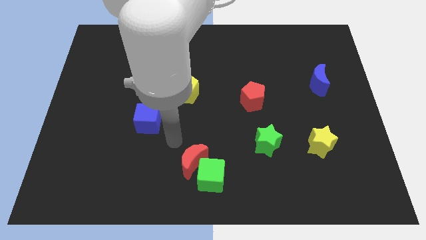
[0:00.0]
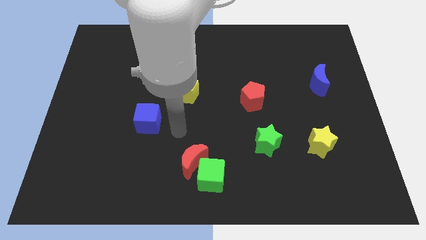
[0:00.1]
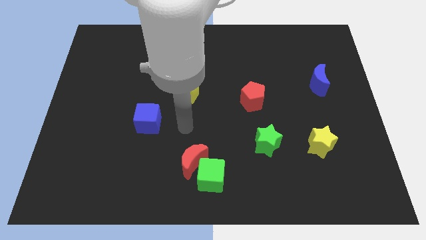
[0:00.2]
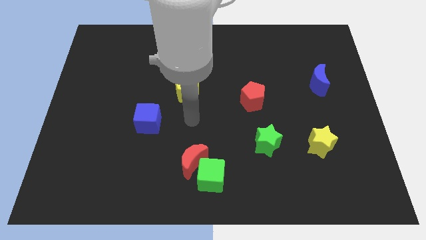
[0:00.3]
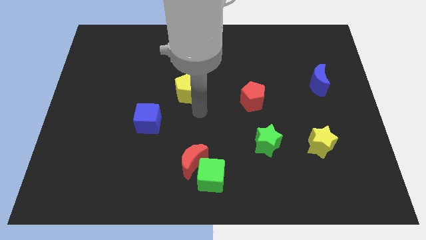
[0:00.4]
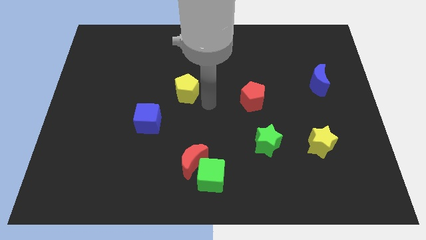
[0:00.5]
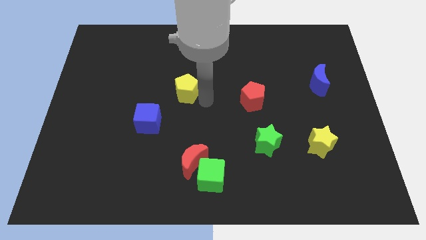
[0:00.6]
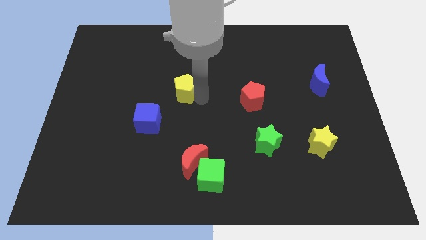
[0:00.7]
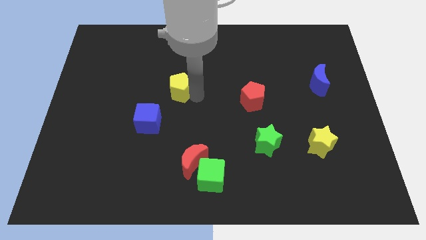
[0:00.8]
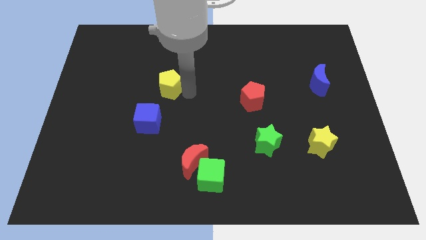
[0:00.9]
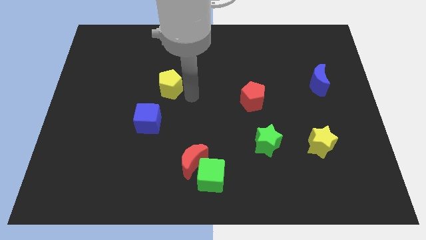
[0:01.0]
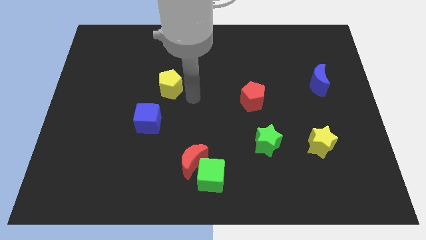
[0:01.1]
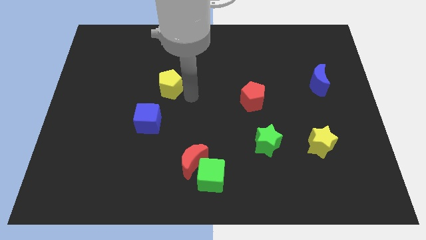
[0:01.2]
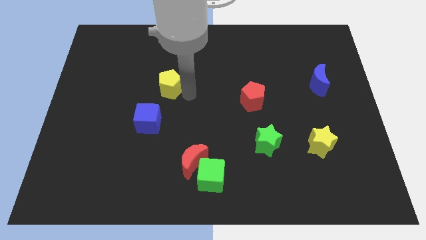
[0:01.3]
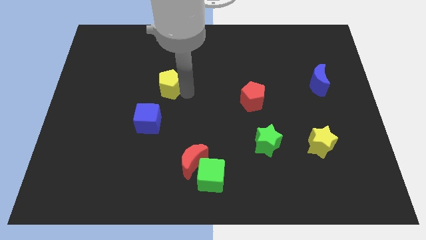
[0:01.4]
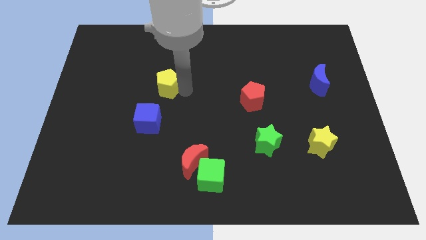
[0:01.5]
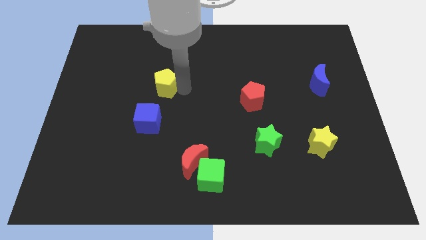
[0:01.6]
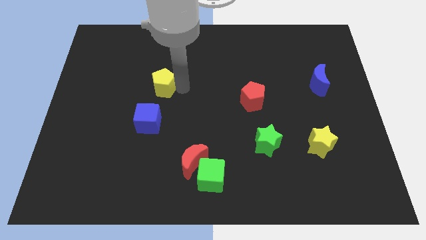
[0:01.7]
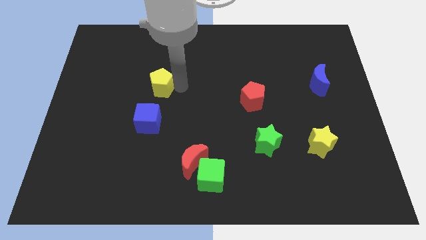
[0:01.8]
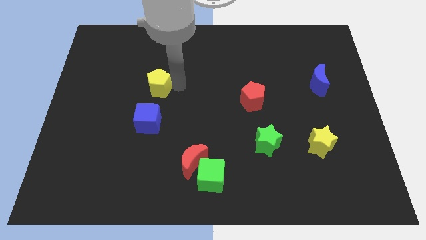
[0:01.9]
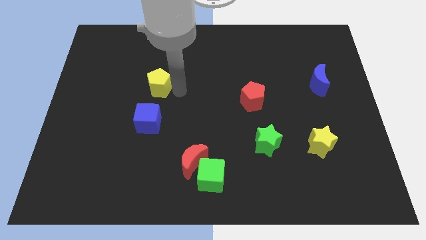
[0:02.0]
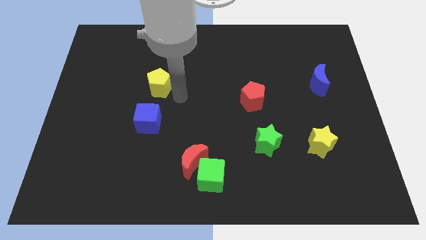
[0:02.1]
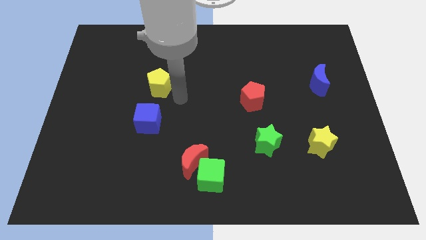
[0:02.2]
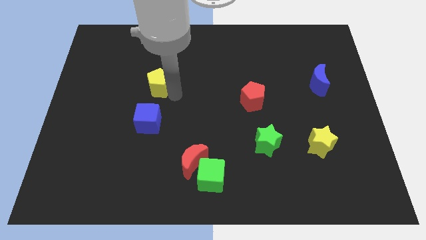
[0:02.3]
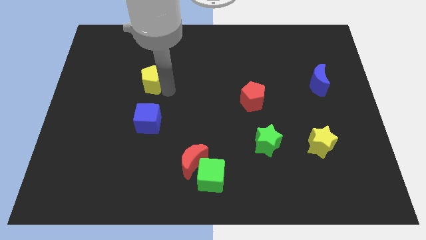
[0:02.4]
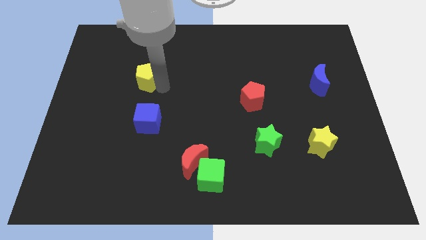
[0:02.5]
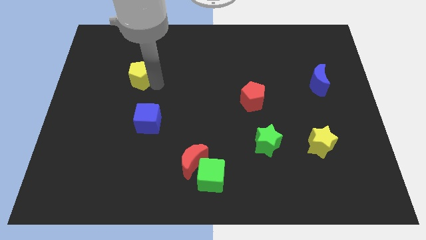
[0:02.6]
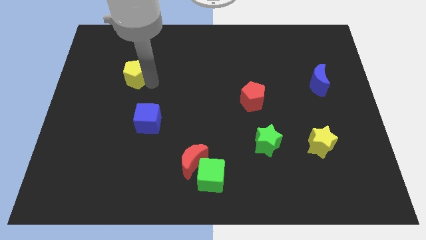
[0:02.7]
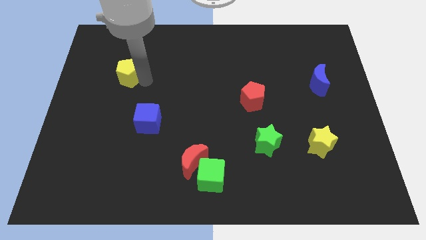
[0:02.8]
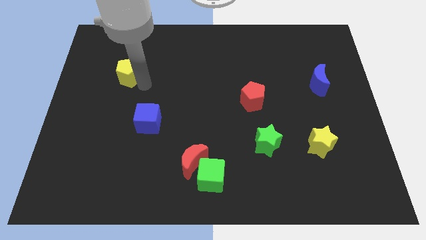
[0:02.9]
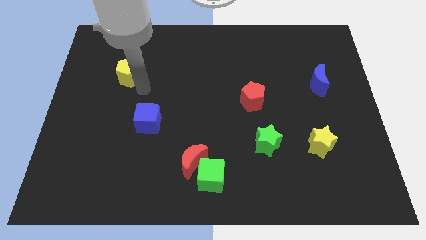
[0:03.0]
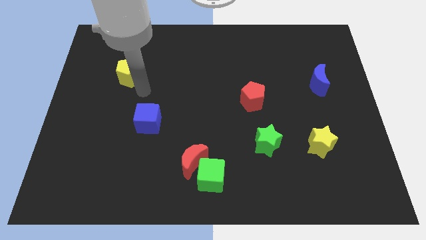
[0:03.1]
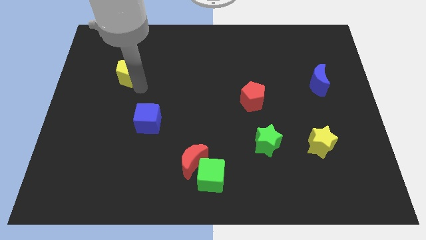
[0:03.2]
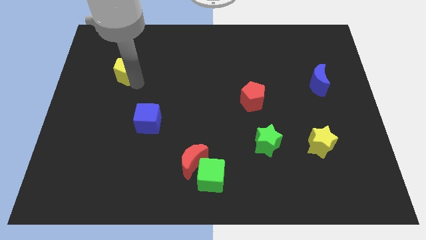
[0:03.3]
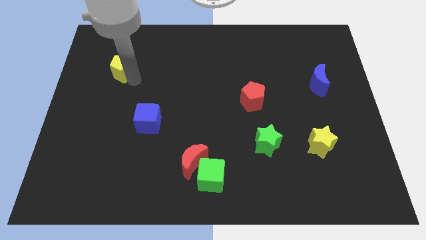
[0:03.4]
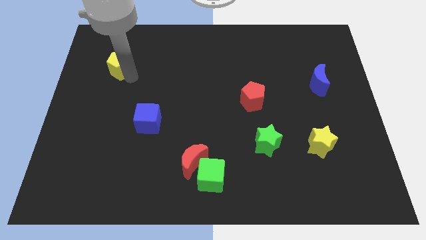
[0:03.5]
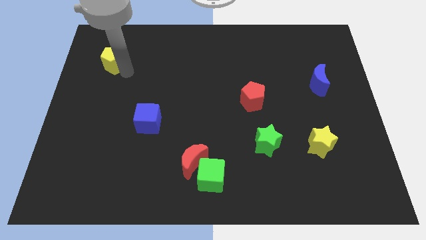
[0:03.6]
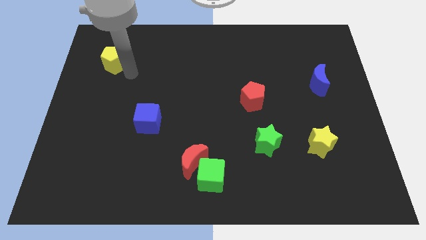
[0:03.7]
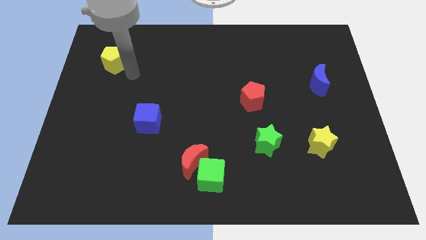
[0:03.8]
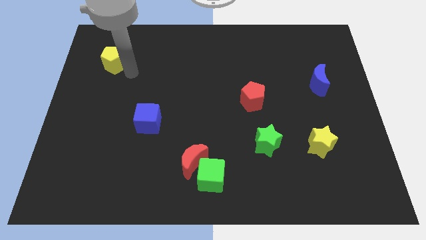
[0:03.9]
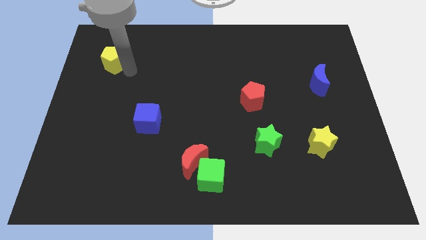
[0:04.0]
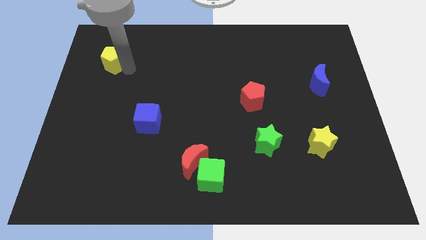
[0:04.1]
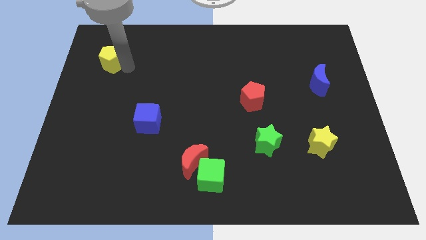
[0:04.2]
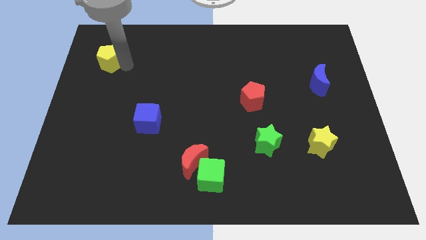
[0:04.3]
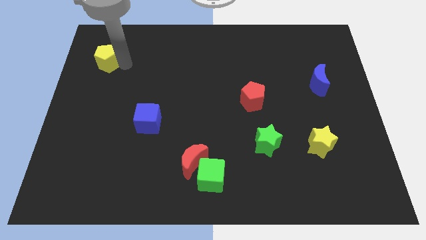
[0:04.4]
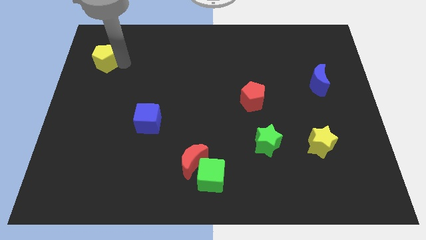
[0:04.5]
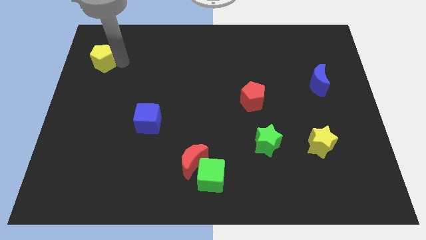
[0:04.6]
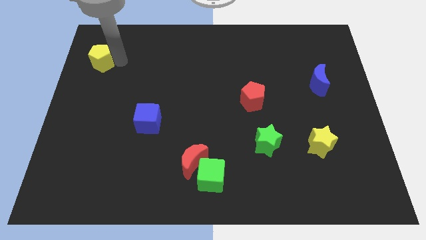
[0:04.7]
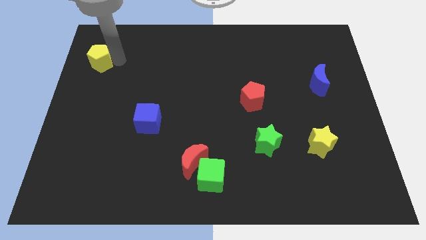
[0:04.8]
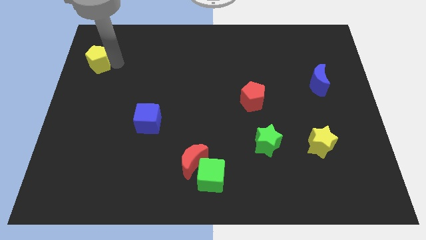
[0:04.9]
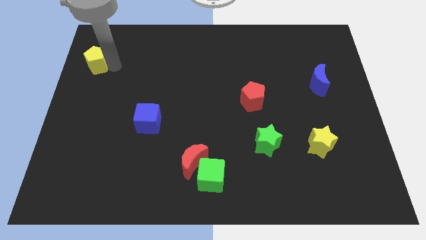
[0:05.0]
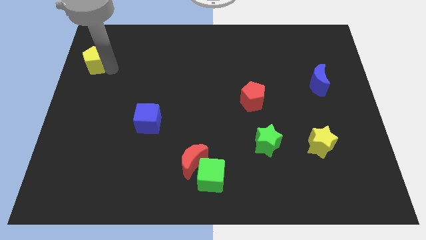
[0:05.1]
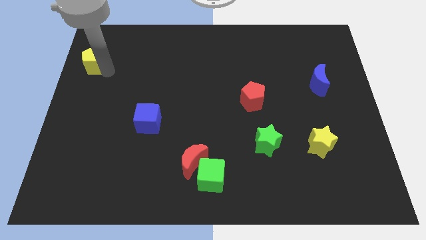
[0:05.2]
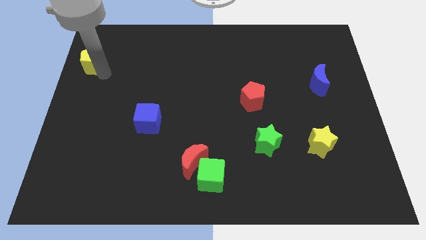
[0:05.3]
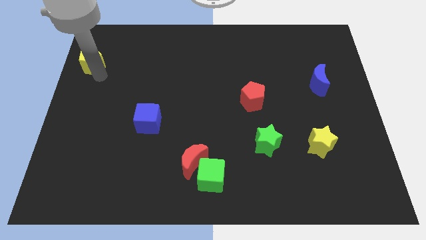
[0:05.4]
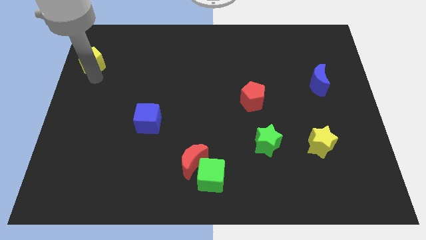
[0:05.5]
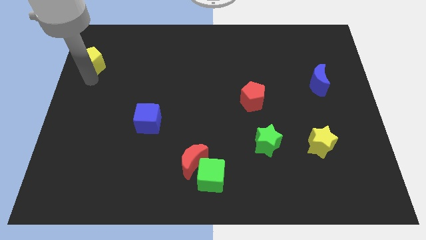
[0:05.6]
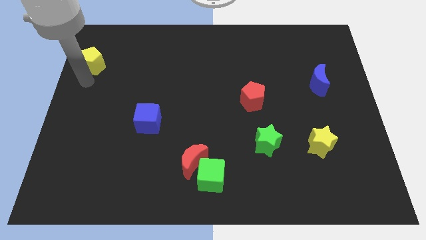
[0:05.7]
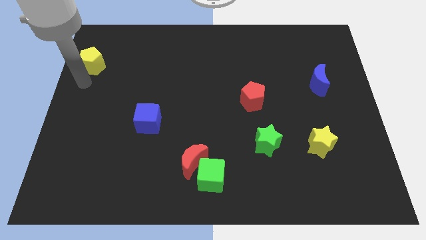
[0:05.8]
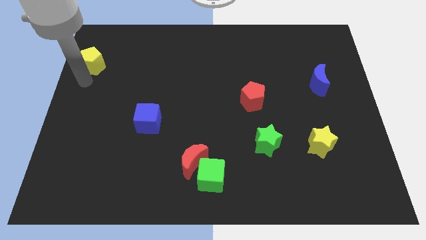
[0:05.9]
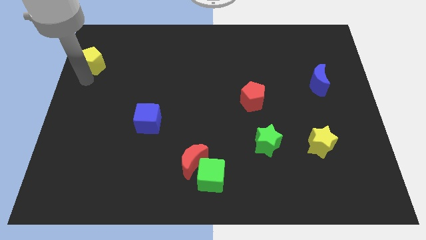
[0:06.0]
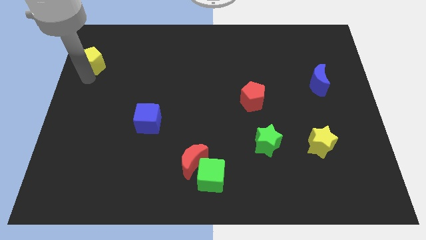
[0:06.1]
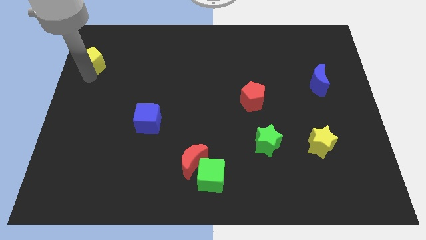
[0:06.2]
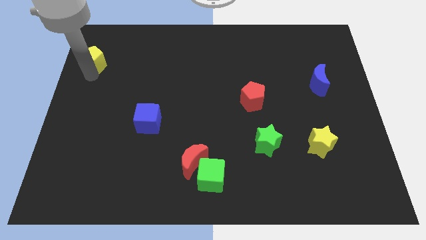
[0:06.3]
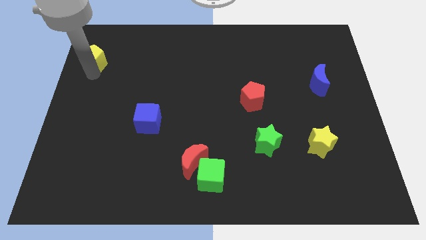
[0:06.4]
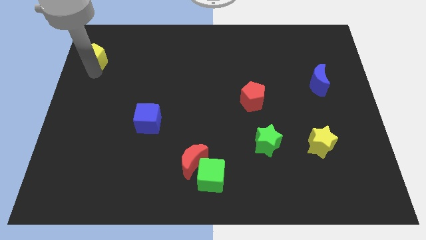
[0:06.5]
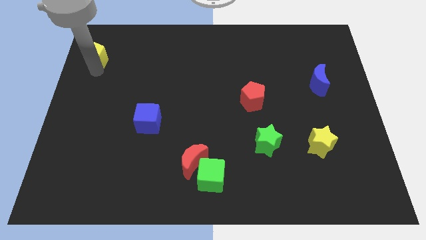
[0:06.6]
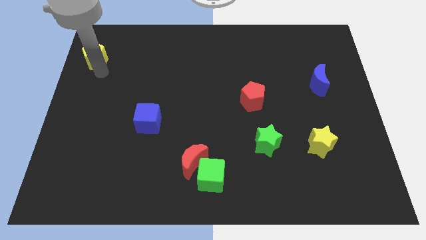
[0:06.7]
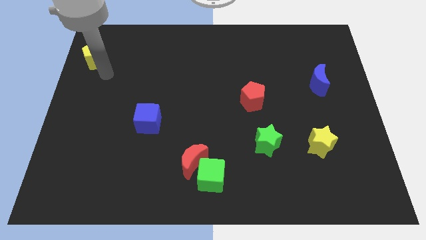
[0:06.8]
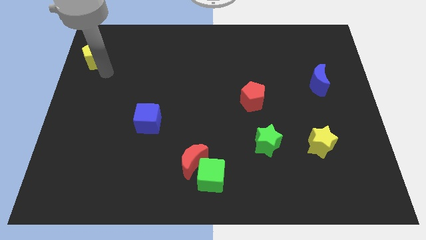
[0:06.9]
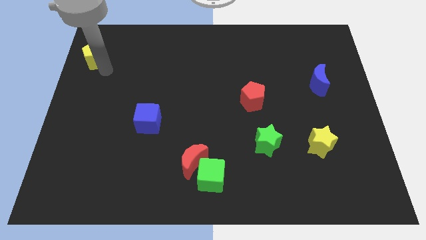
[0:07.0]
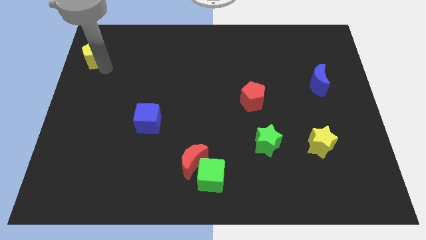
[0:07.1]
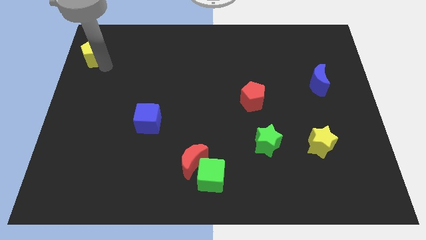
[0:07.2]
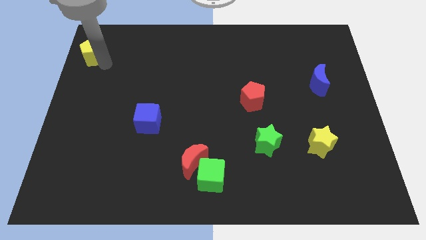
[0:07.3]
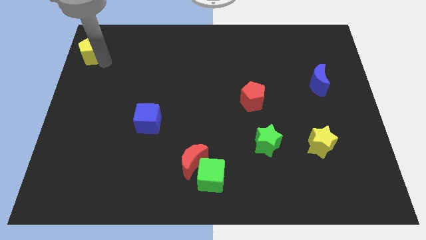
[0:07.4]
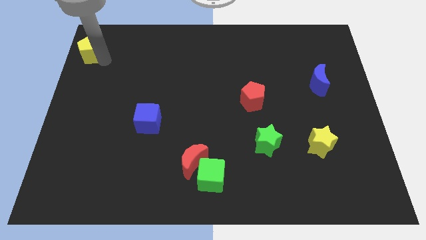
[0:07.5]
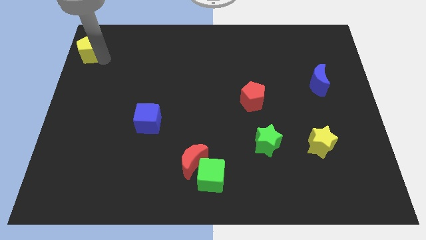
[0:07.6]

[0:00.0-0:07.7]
move the yellow pentagon to the top left corner
